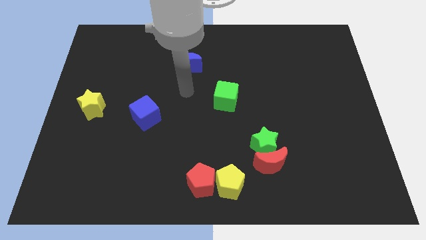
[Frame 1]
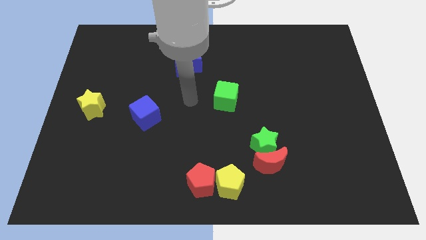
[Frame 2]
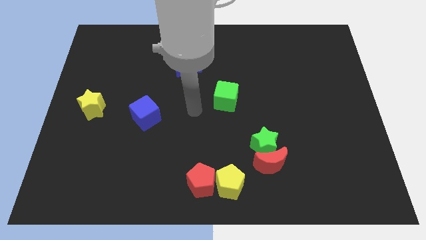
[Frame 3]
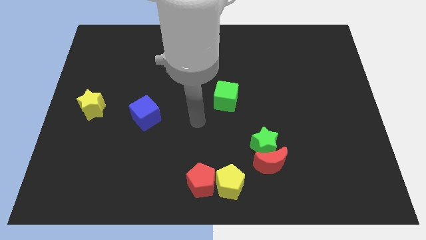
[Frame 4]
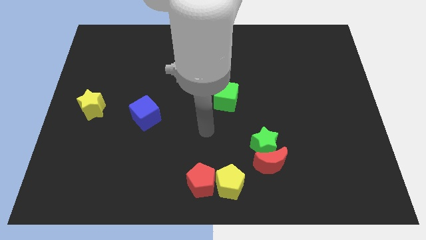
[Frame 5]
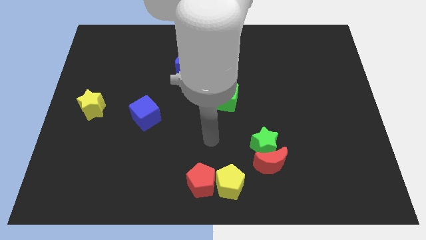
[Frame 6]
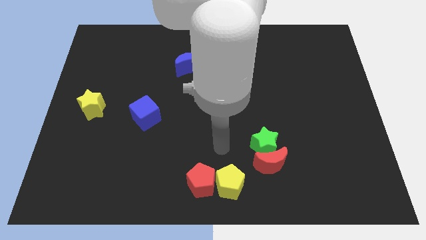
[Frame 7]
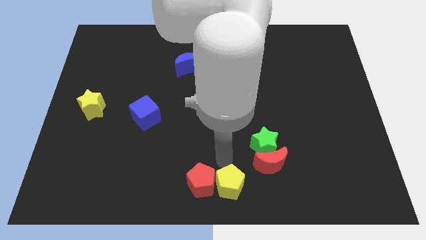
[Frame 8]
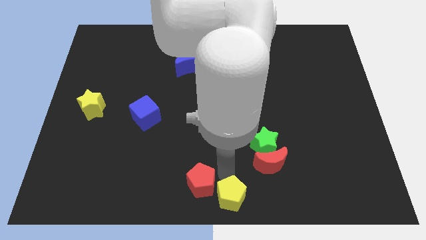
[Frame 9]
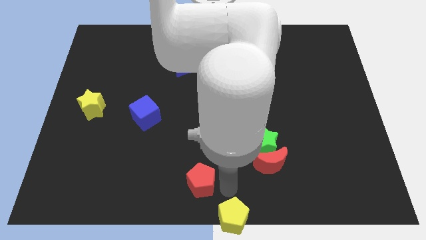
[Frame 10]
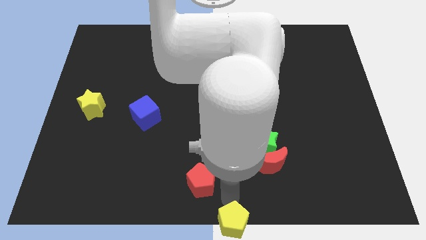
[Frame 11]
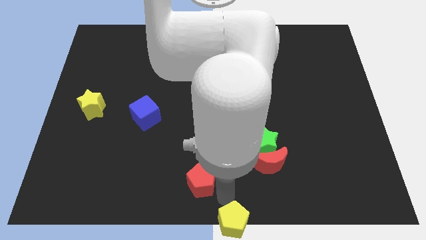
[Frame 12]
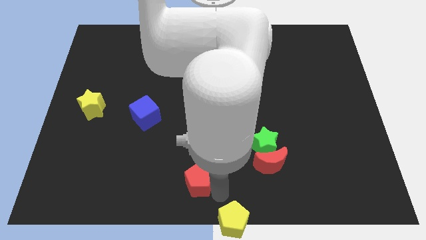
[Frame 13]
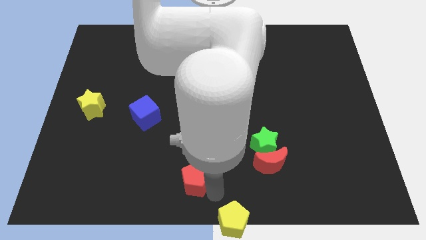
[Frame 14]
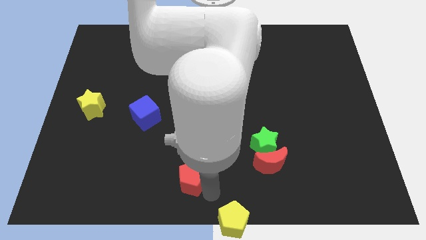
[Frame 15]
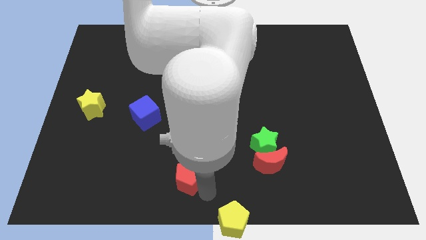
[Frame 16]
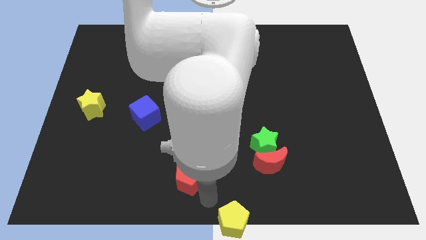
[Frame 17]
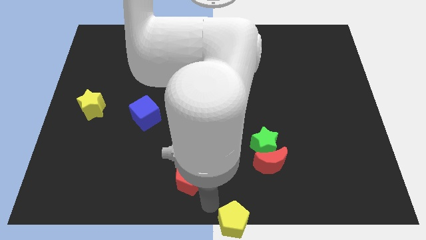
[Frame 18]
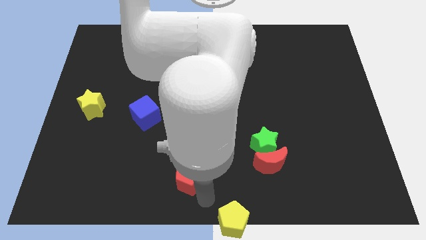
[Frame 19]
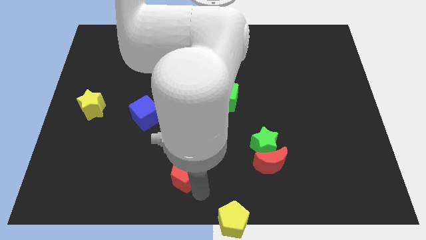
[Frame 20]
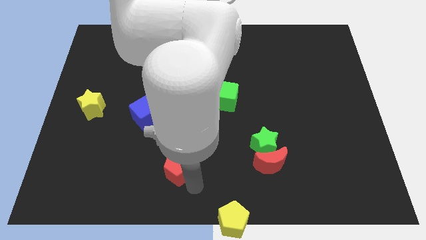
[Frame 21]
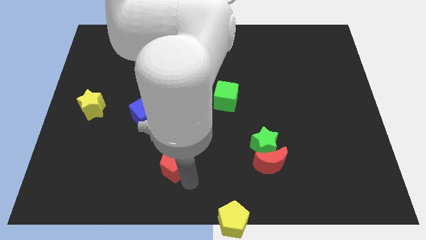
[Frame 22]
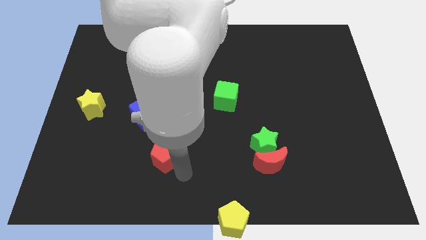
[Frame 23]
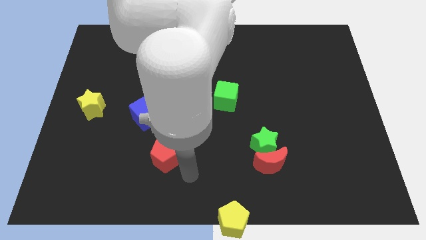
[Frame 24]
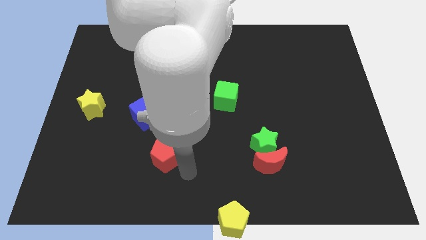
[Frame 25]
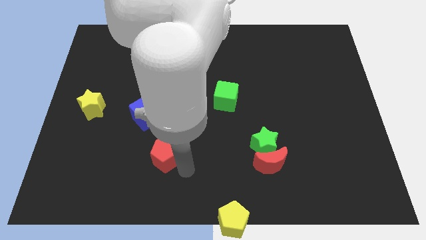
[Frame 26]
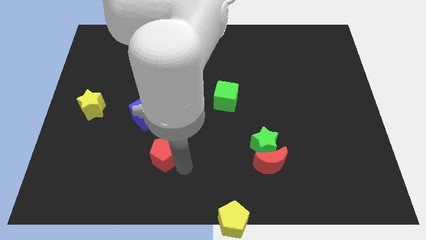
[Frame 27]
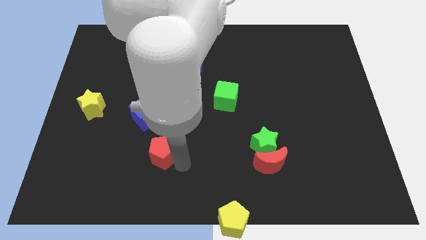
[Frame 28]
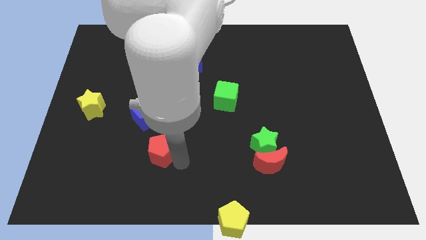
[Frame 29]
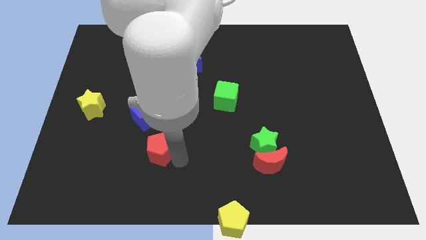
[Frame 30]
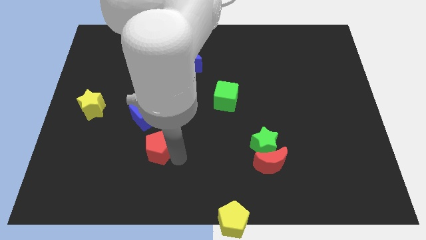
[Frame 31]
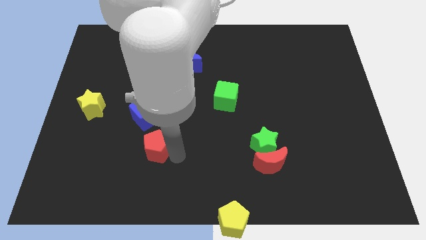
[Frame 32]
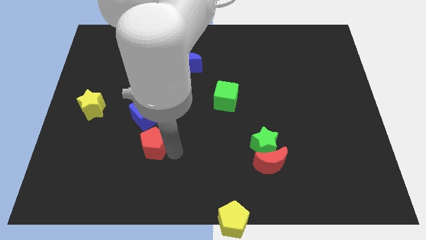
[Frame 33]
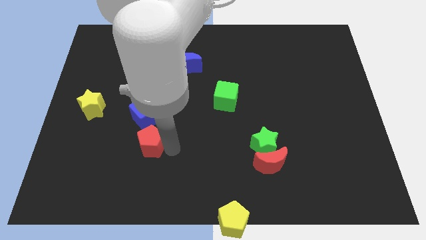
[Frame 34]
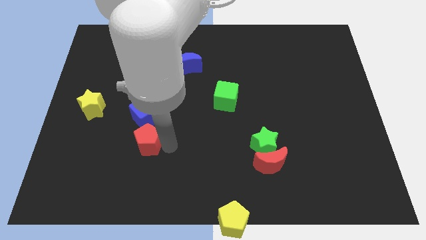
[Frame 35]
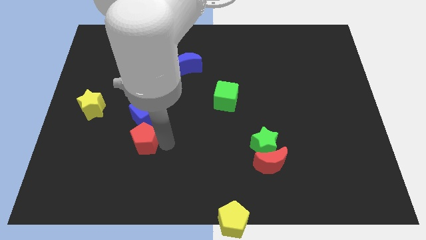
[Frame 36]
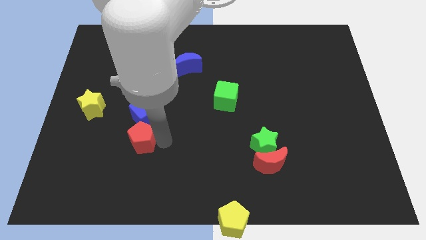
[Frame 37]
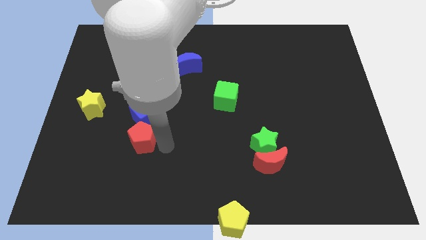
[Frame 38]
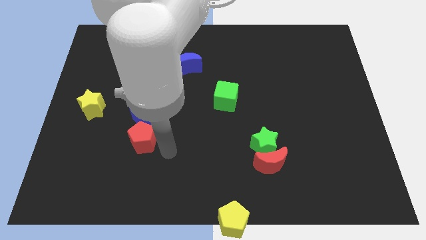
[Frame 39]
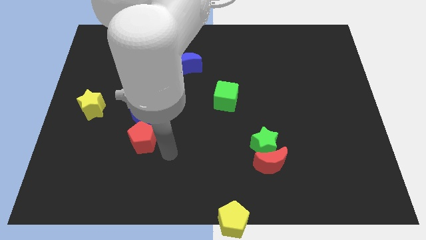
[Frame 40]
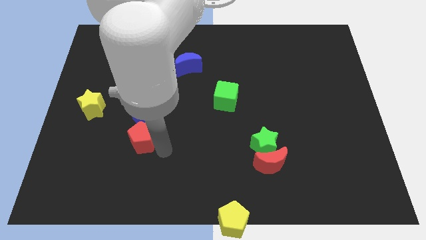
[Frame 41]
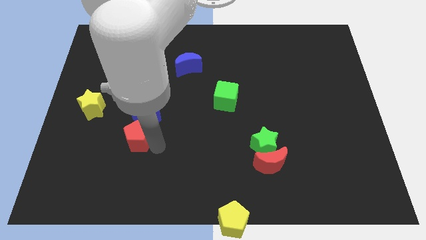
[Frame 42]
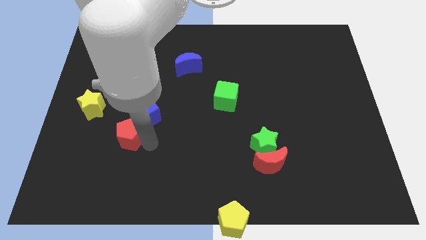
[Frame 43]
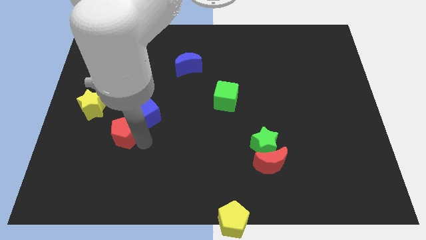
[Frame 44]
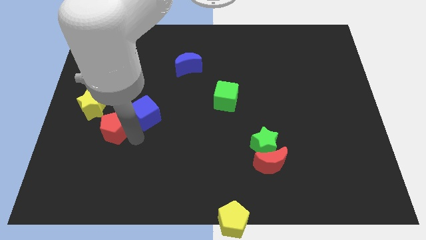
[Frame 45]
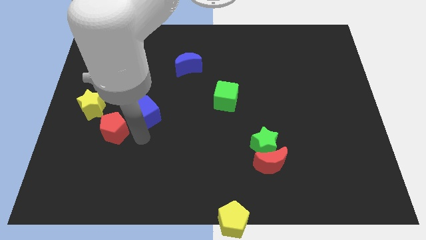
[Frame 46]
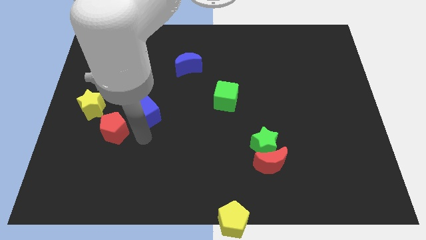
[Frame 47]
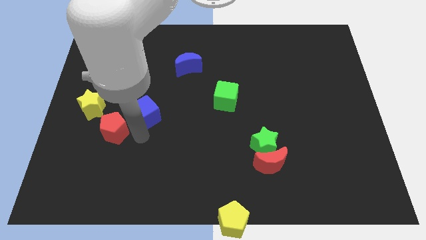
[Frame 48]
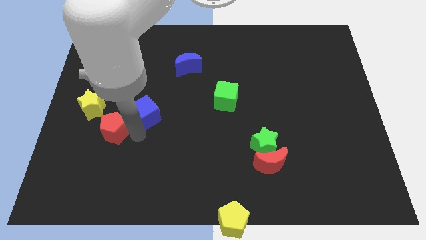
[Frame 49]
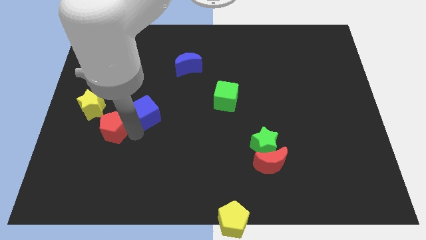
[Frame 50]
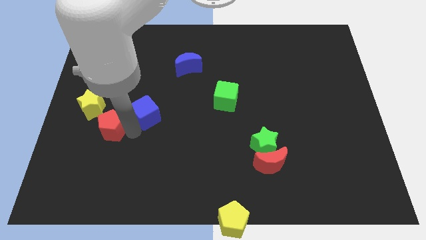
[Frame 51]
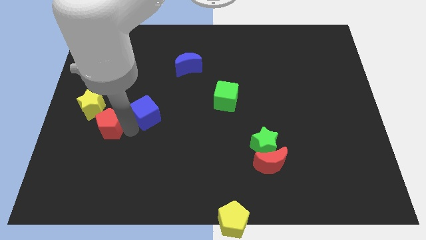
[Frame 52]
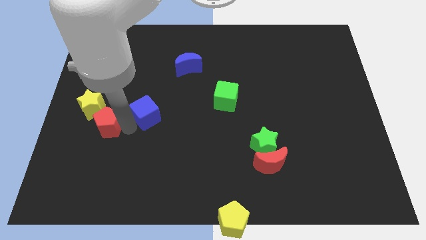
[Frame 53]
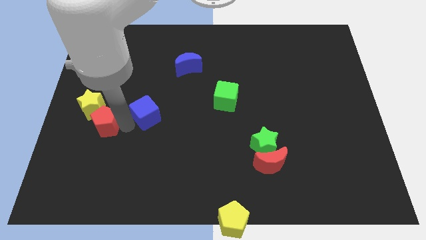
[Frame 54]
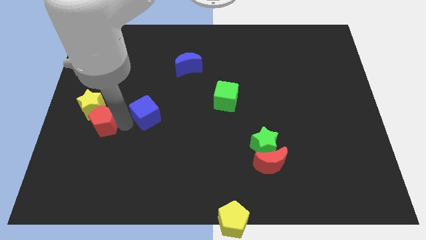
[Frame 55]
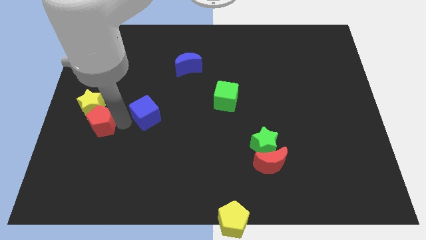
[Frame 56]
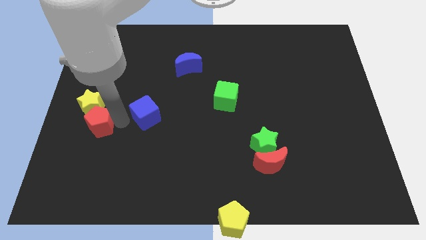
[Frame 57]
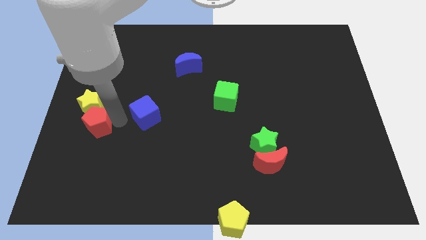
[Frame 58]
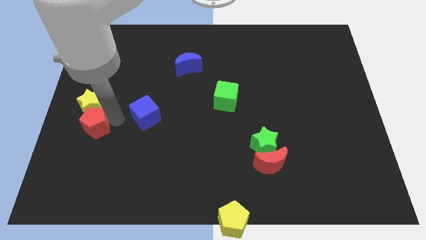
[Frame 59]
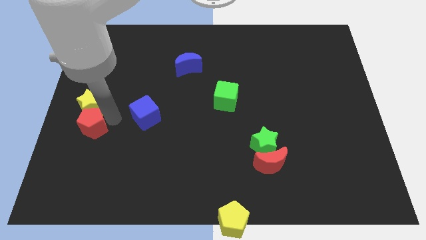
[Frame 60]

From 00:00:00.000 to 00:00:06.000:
push the red pentagon to the center left
